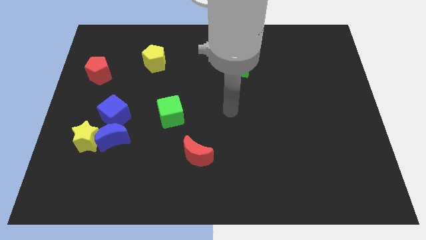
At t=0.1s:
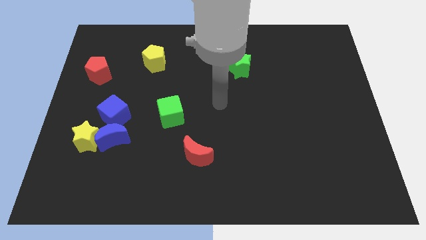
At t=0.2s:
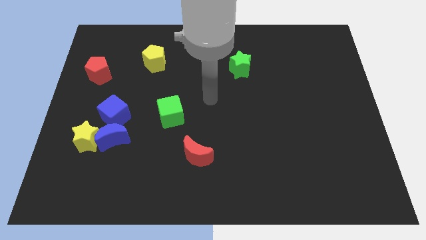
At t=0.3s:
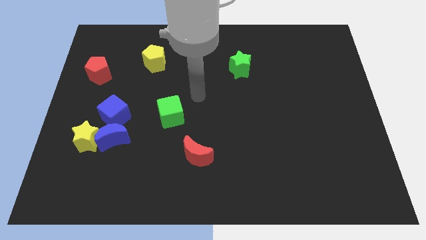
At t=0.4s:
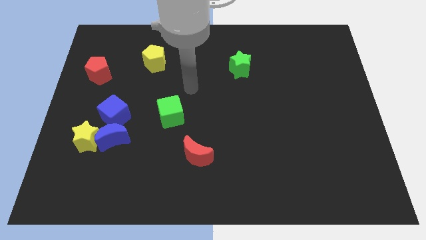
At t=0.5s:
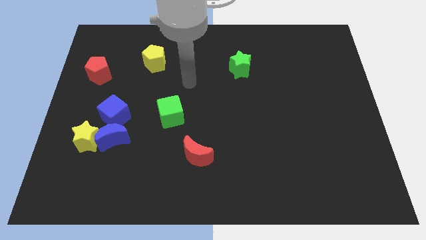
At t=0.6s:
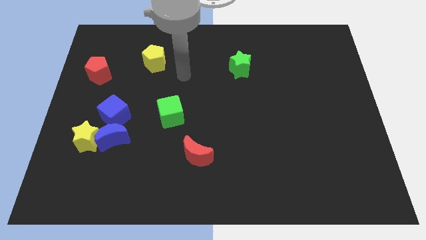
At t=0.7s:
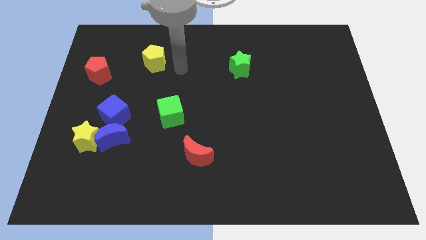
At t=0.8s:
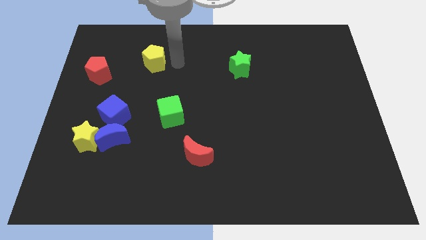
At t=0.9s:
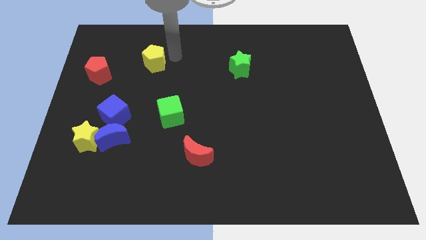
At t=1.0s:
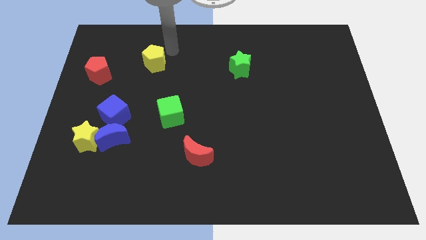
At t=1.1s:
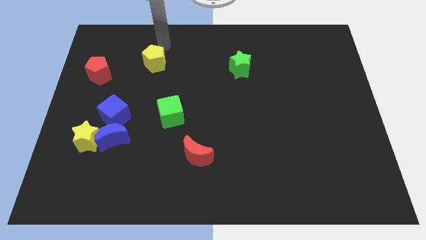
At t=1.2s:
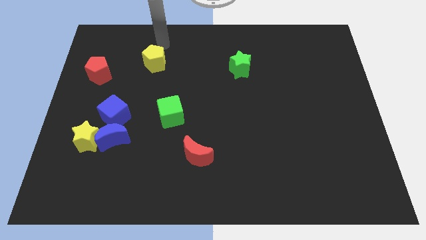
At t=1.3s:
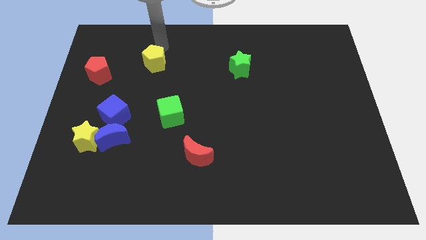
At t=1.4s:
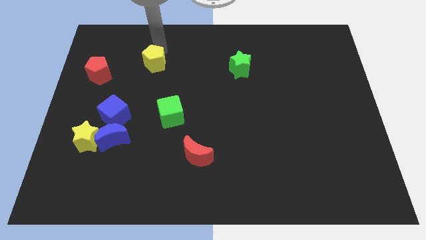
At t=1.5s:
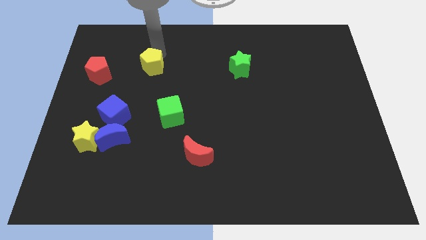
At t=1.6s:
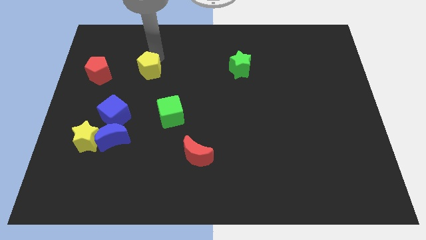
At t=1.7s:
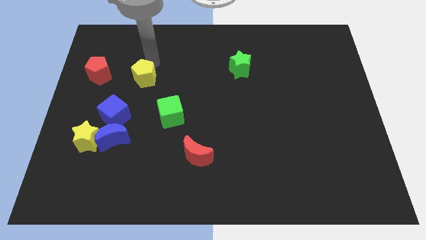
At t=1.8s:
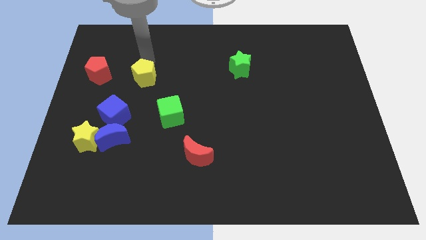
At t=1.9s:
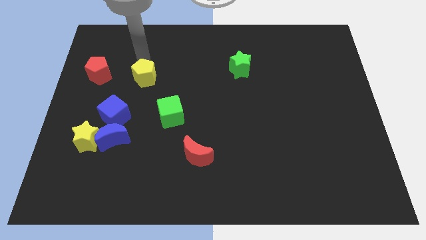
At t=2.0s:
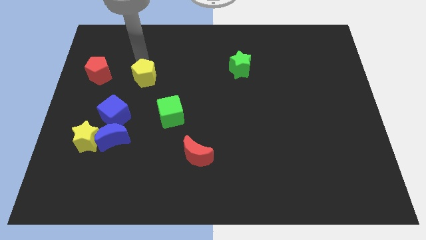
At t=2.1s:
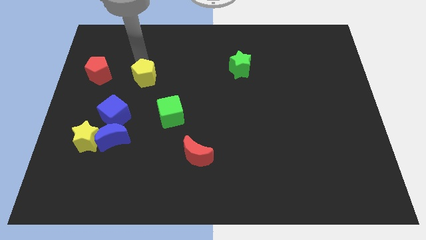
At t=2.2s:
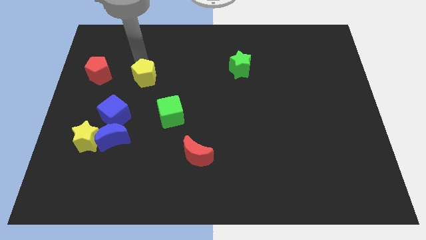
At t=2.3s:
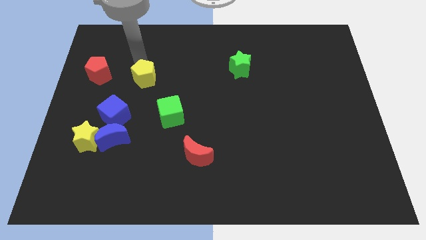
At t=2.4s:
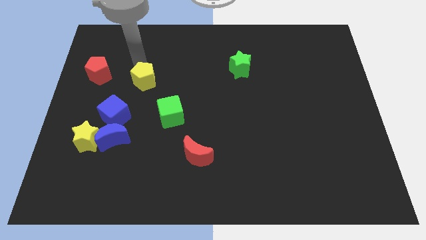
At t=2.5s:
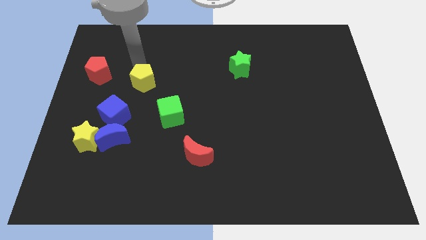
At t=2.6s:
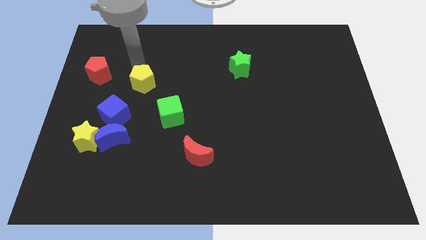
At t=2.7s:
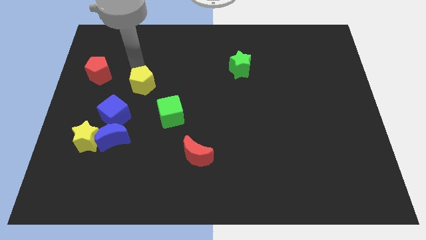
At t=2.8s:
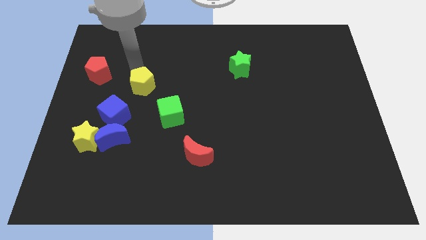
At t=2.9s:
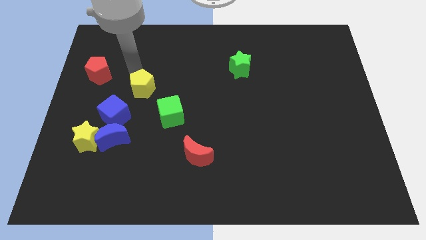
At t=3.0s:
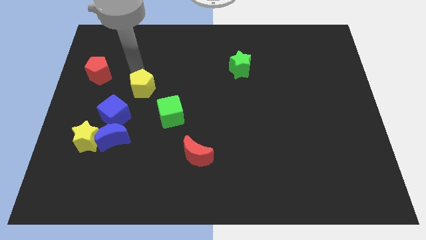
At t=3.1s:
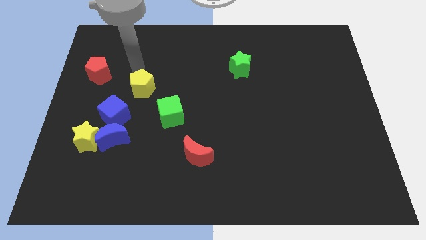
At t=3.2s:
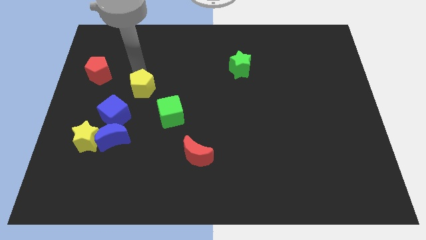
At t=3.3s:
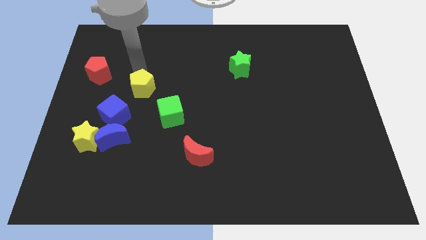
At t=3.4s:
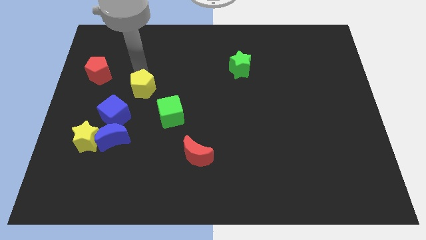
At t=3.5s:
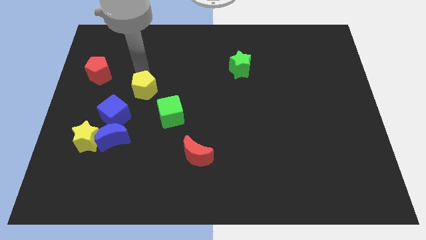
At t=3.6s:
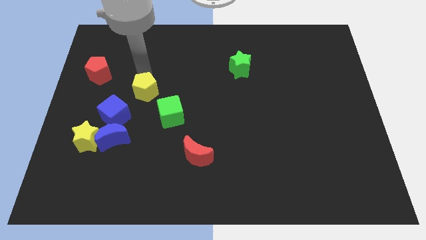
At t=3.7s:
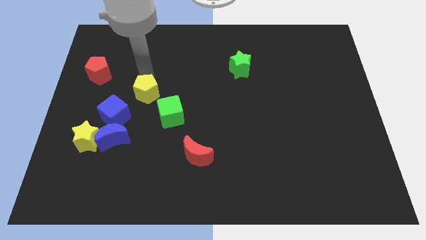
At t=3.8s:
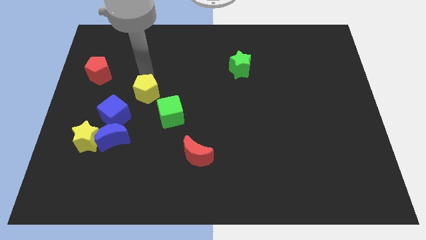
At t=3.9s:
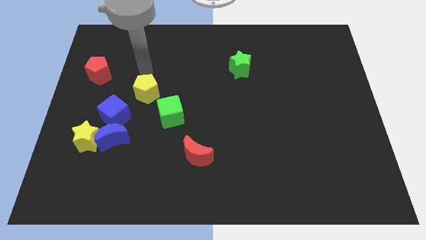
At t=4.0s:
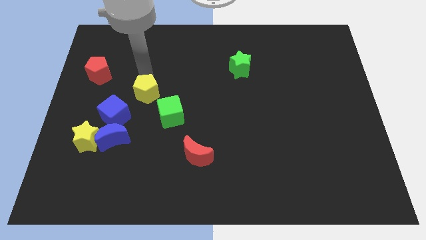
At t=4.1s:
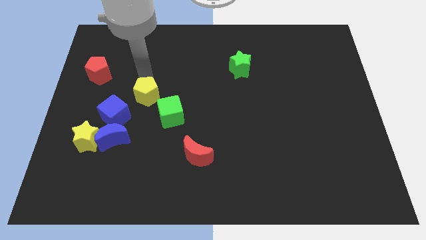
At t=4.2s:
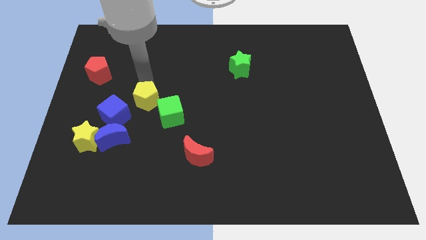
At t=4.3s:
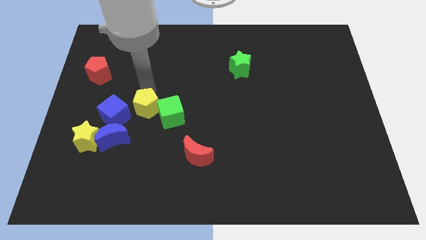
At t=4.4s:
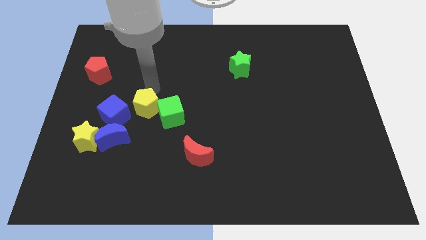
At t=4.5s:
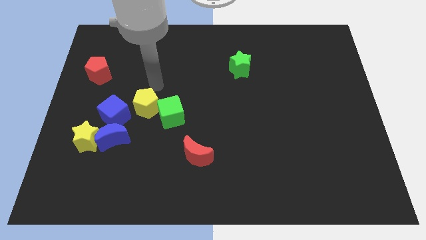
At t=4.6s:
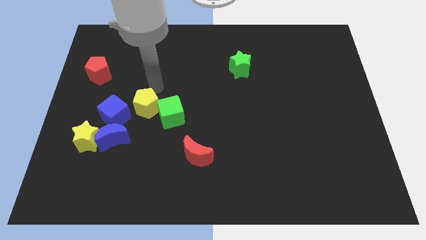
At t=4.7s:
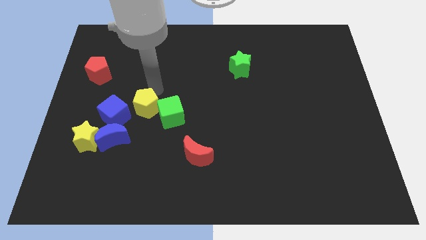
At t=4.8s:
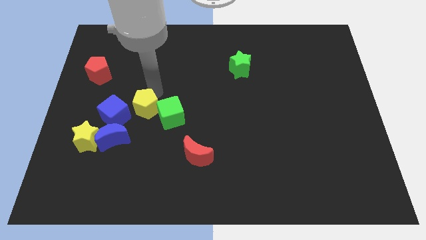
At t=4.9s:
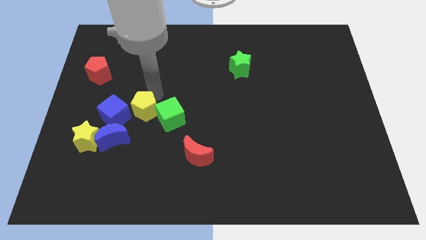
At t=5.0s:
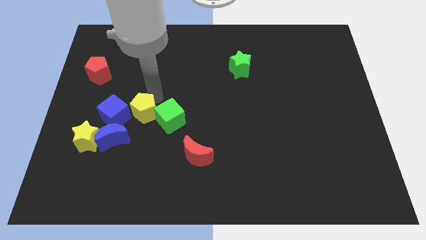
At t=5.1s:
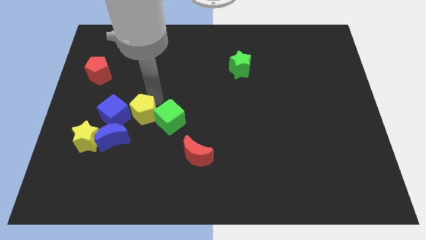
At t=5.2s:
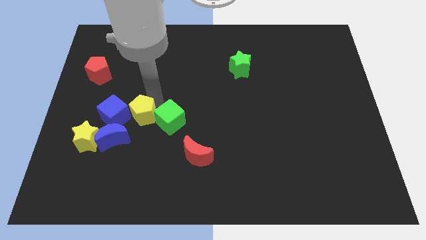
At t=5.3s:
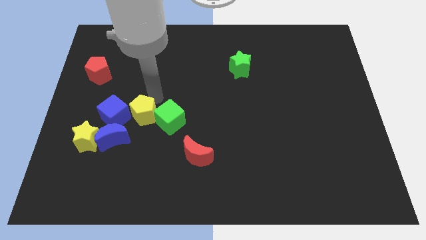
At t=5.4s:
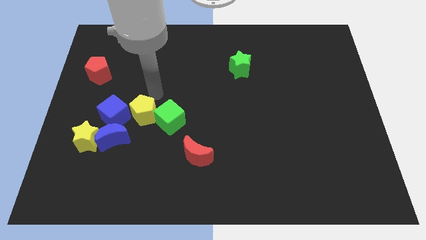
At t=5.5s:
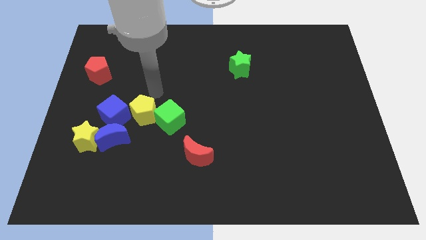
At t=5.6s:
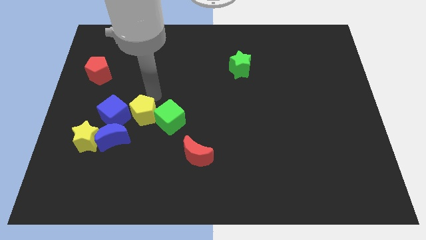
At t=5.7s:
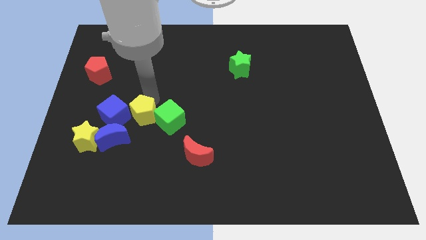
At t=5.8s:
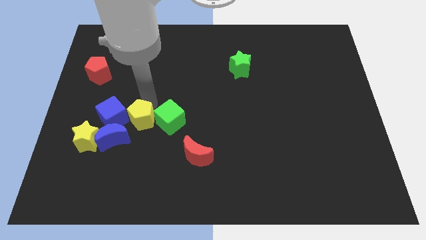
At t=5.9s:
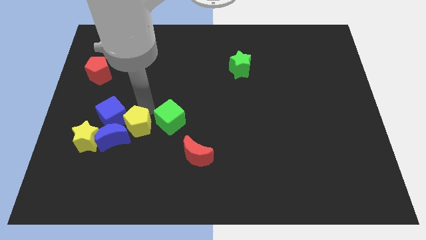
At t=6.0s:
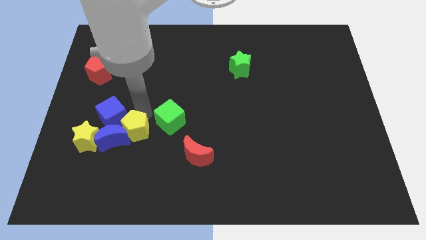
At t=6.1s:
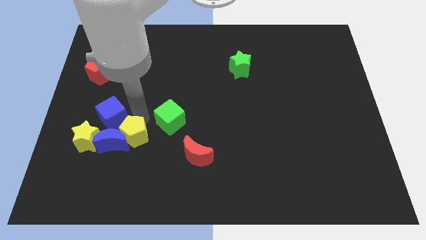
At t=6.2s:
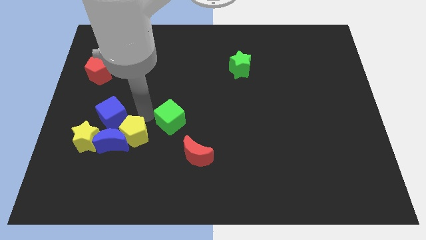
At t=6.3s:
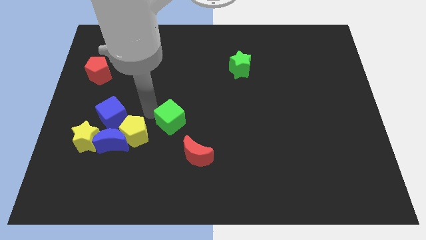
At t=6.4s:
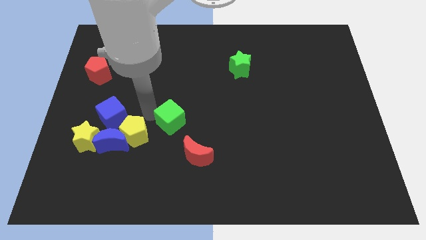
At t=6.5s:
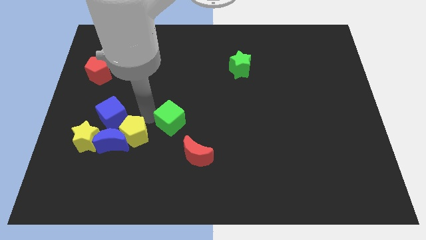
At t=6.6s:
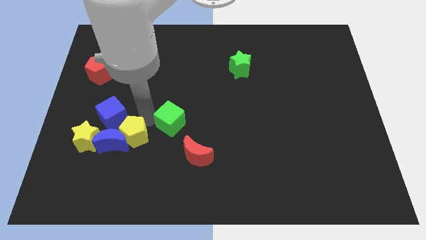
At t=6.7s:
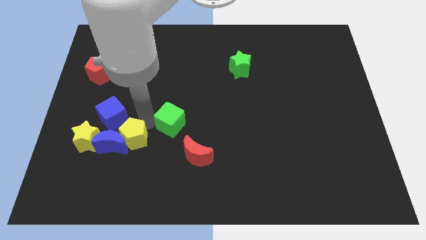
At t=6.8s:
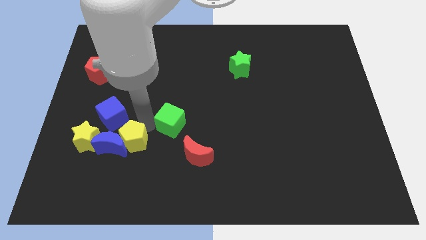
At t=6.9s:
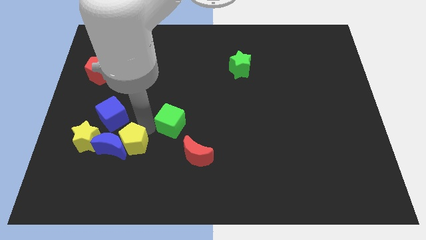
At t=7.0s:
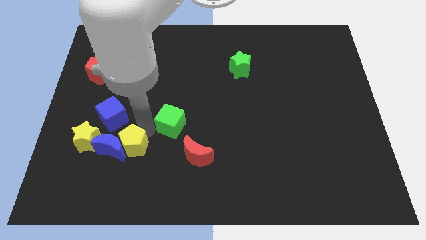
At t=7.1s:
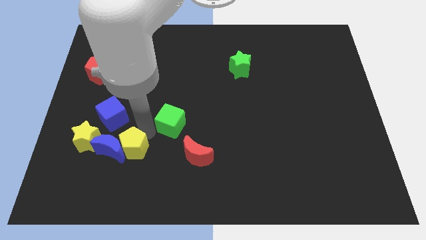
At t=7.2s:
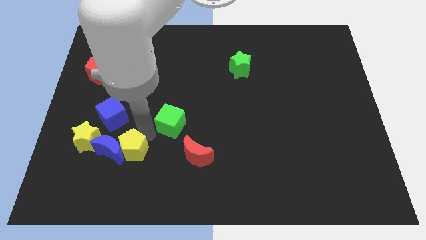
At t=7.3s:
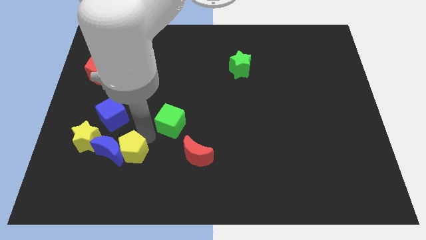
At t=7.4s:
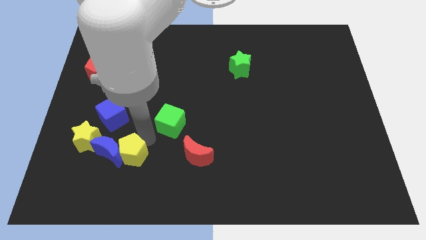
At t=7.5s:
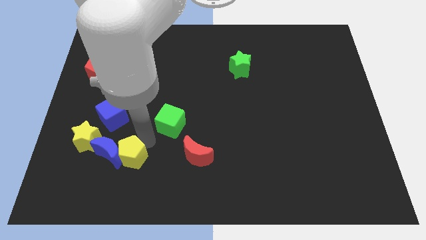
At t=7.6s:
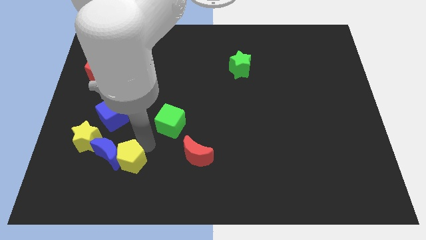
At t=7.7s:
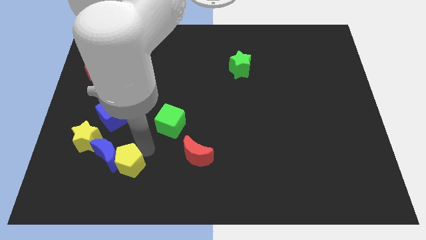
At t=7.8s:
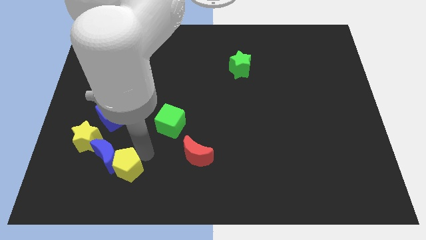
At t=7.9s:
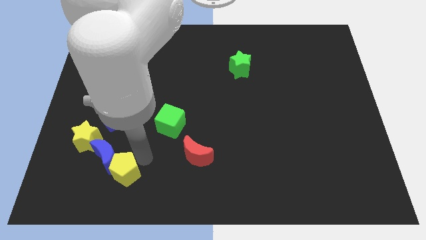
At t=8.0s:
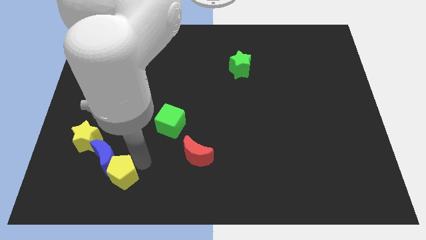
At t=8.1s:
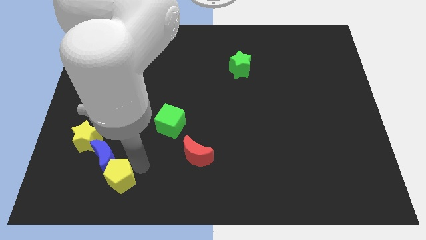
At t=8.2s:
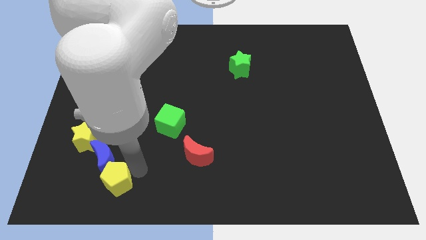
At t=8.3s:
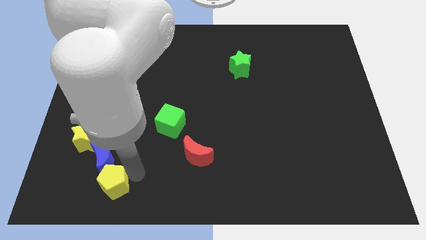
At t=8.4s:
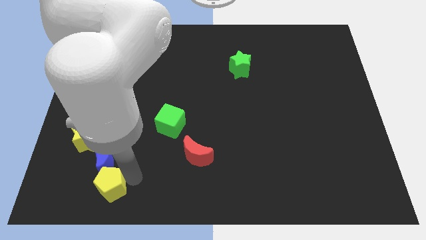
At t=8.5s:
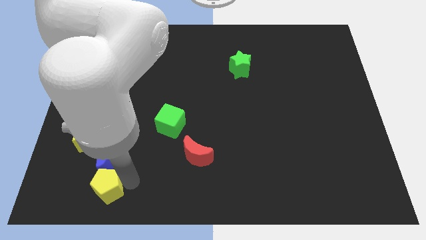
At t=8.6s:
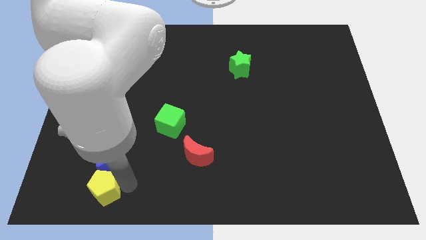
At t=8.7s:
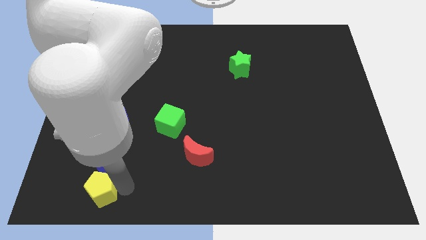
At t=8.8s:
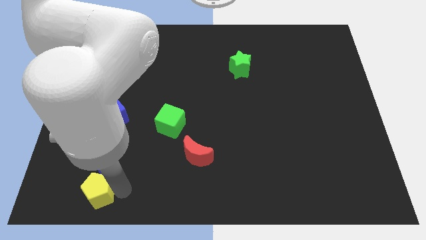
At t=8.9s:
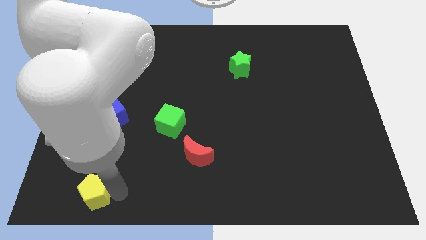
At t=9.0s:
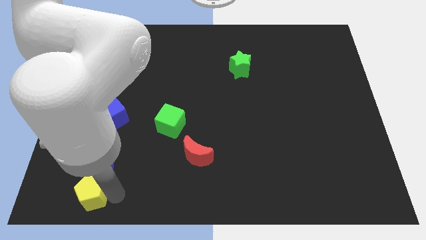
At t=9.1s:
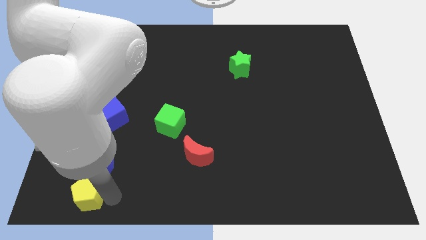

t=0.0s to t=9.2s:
slide the yellow pentagon to the bottom left of the blue moon
